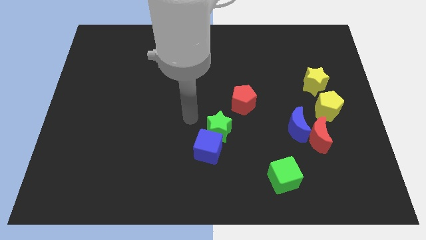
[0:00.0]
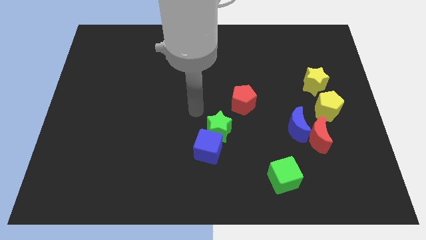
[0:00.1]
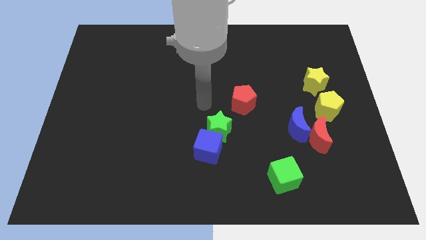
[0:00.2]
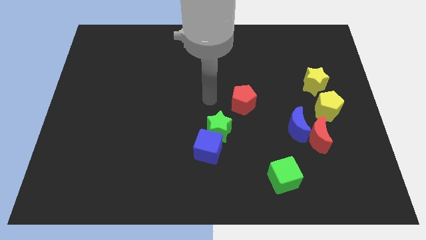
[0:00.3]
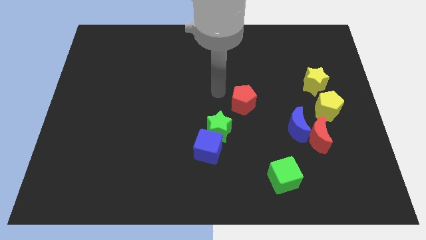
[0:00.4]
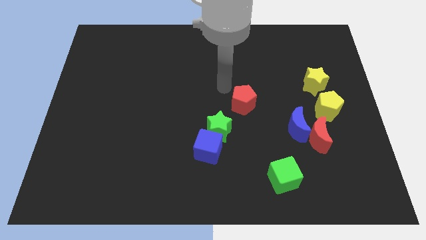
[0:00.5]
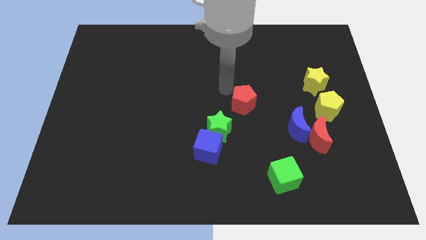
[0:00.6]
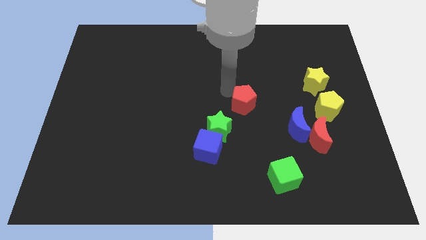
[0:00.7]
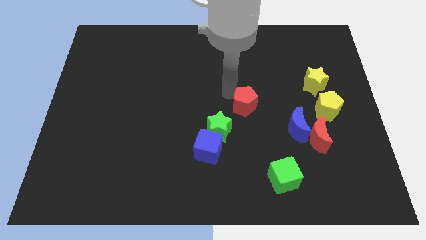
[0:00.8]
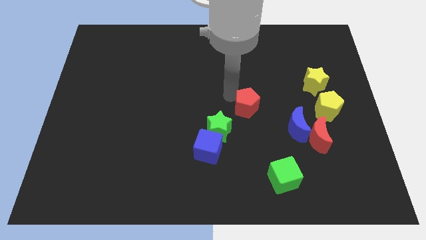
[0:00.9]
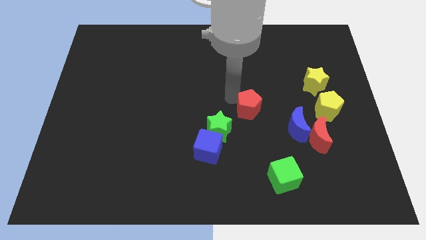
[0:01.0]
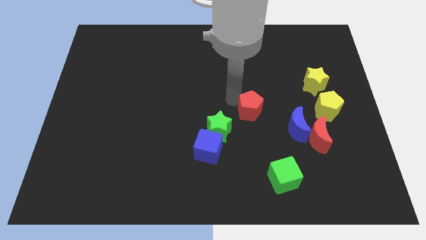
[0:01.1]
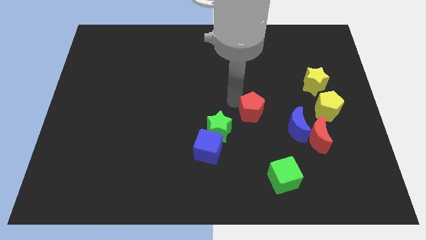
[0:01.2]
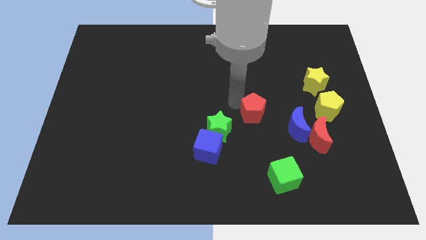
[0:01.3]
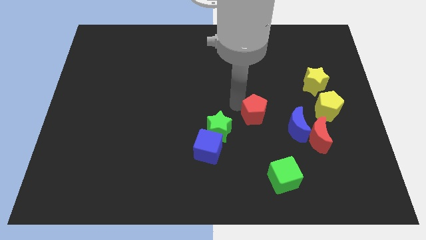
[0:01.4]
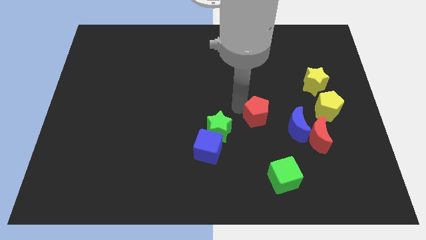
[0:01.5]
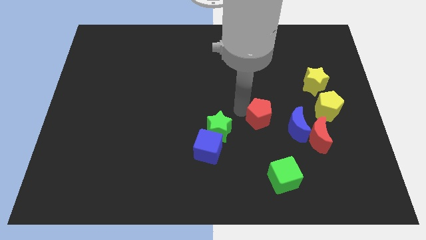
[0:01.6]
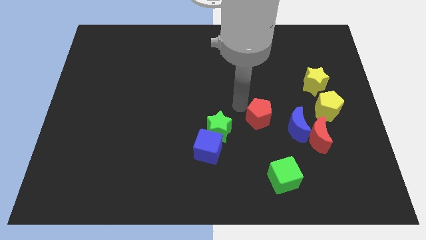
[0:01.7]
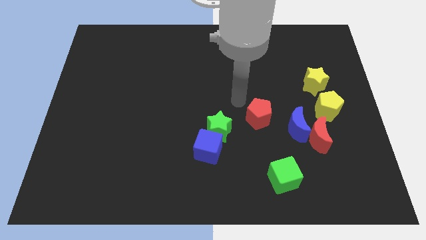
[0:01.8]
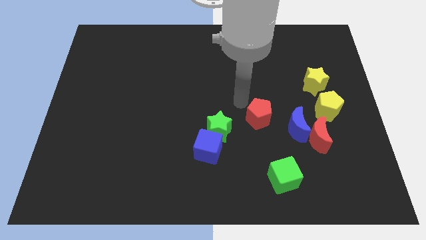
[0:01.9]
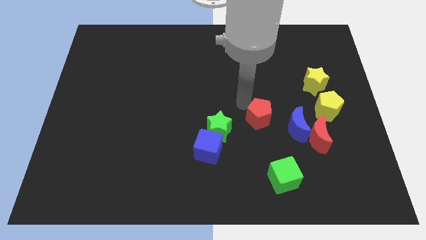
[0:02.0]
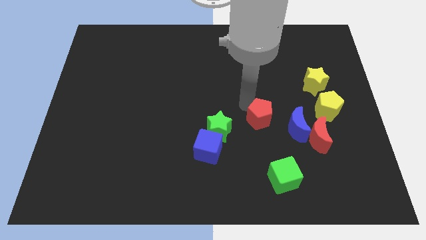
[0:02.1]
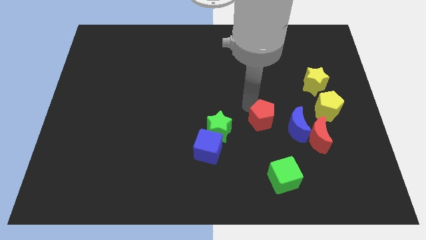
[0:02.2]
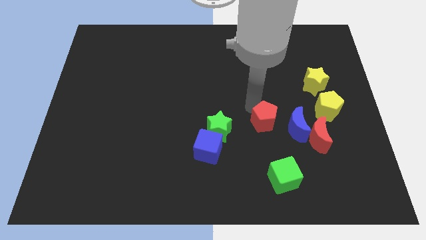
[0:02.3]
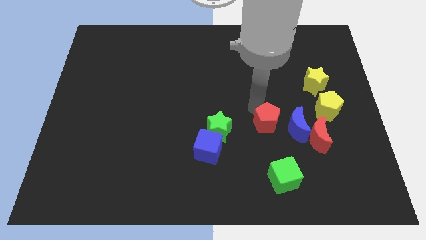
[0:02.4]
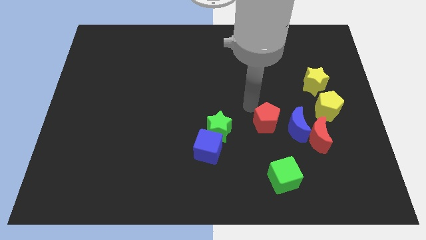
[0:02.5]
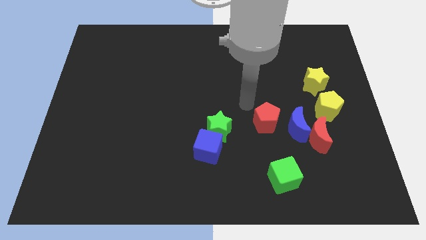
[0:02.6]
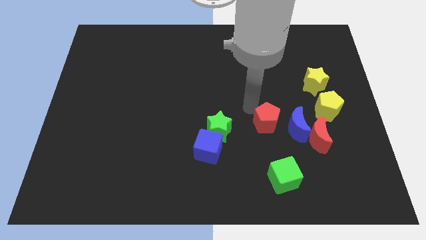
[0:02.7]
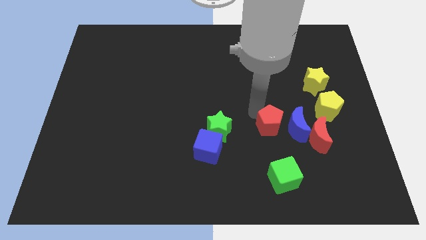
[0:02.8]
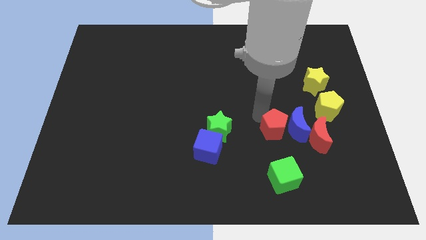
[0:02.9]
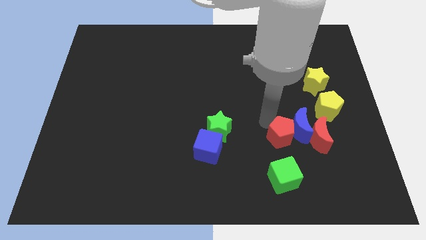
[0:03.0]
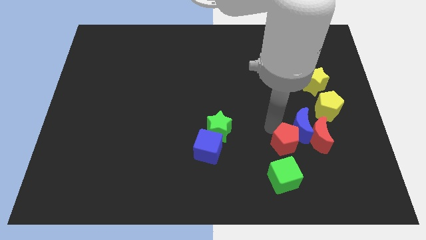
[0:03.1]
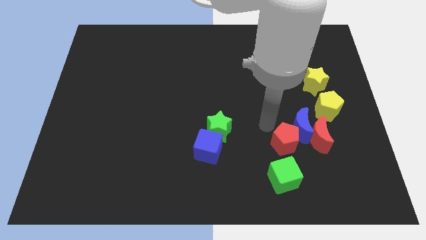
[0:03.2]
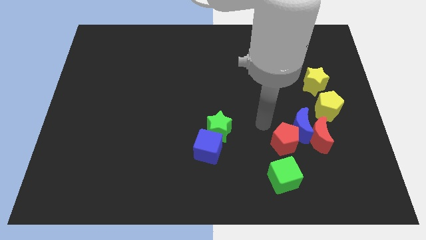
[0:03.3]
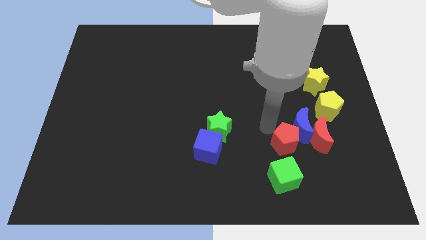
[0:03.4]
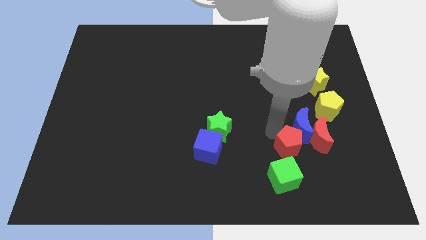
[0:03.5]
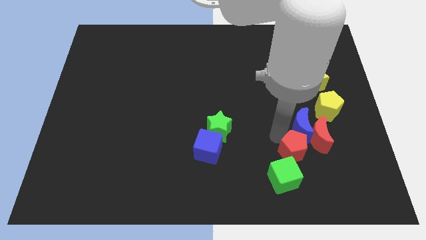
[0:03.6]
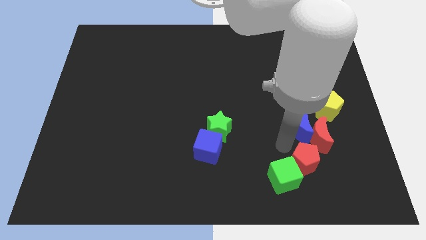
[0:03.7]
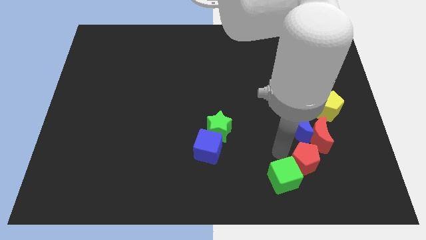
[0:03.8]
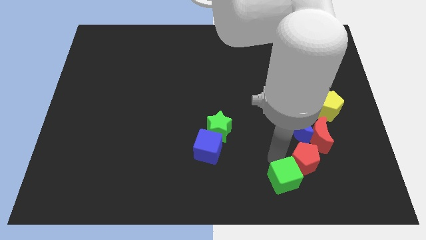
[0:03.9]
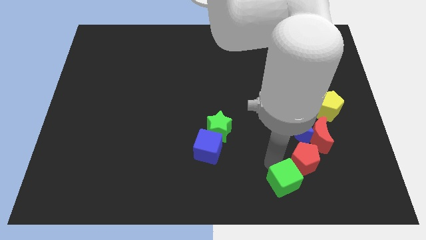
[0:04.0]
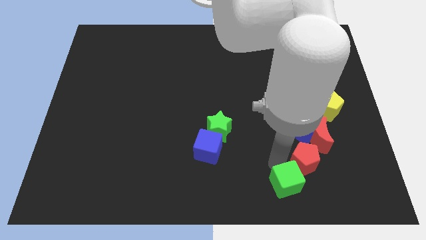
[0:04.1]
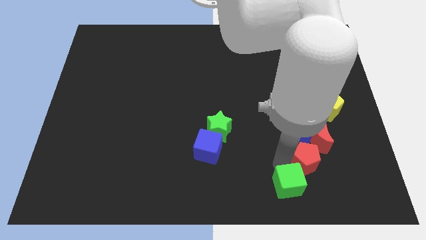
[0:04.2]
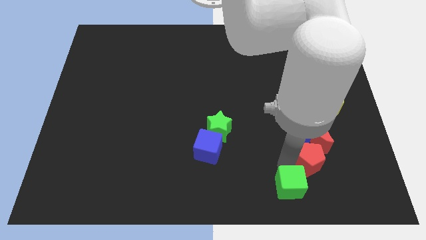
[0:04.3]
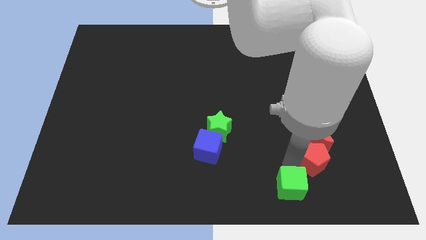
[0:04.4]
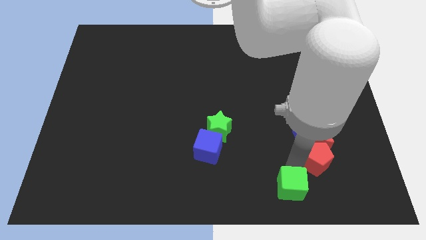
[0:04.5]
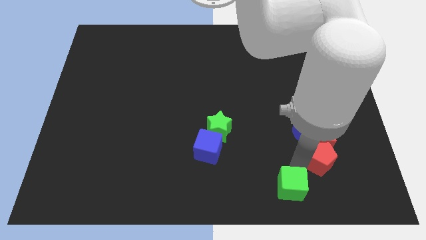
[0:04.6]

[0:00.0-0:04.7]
put the red pentagon to the bottom right of the red moon

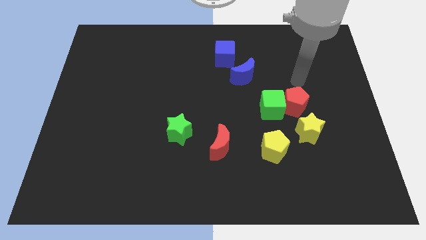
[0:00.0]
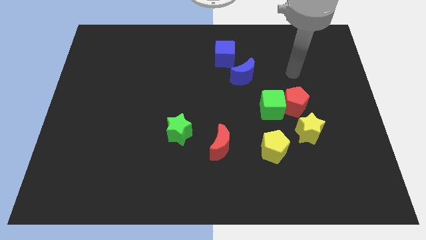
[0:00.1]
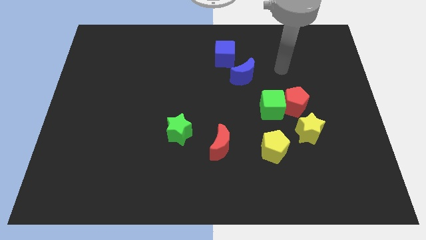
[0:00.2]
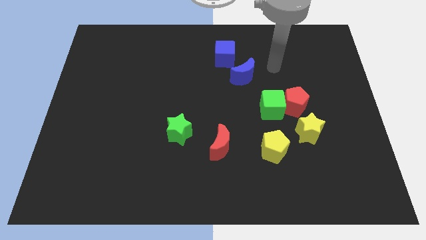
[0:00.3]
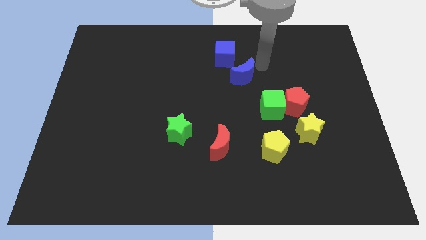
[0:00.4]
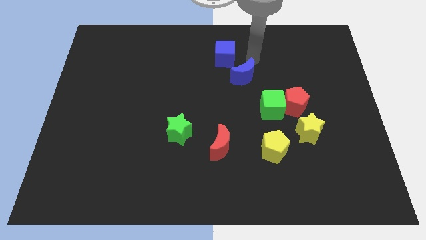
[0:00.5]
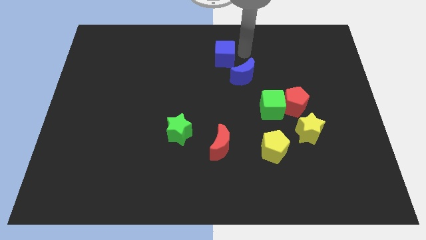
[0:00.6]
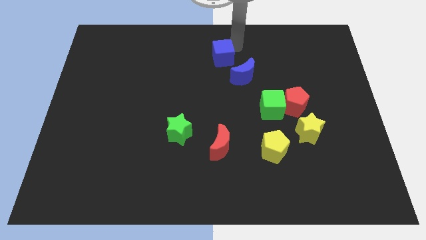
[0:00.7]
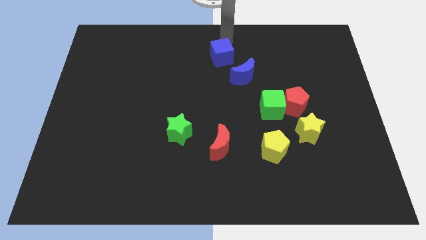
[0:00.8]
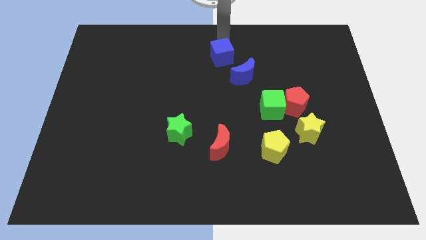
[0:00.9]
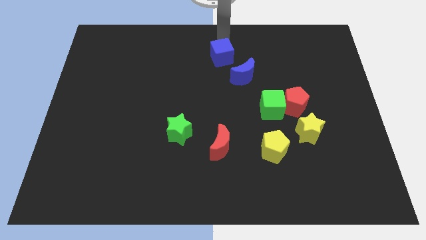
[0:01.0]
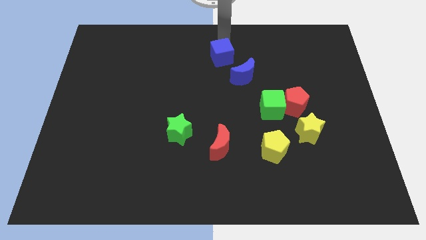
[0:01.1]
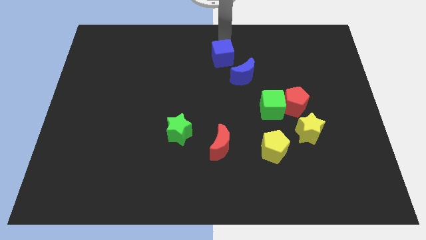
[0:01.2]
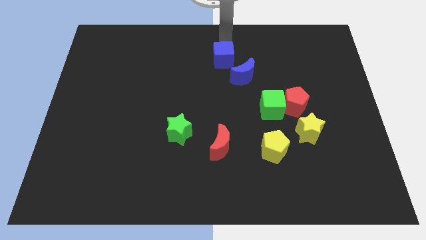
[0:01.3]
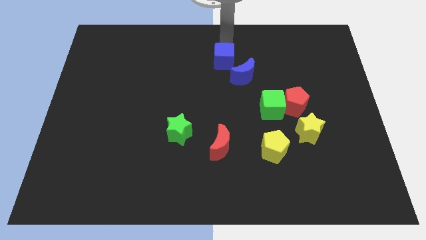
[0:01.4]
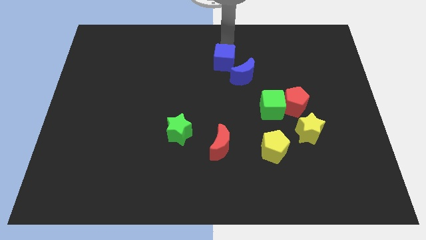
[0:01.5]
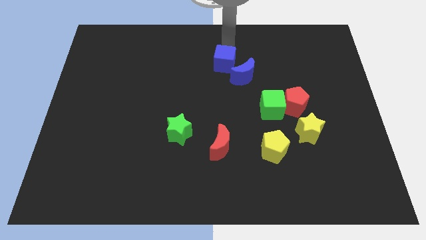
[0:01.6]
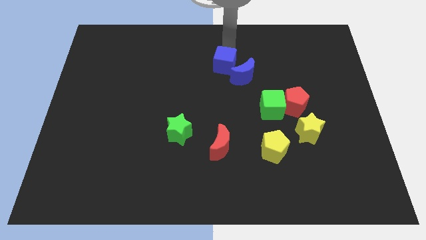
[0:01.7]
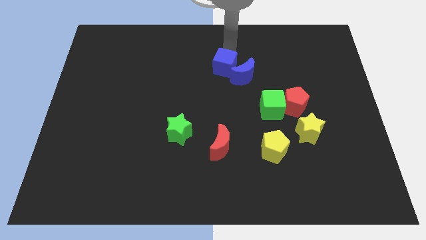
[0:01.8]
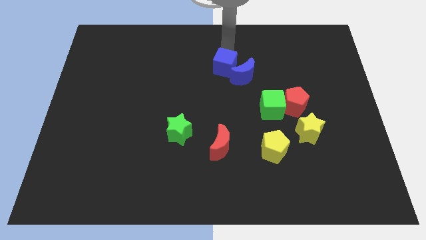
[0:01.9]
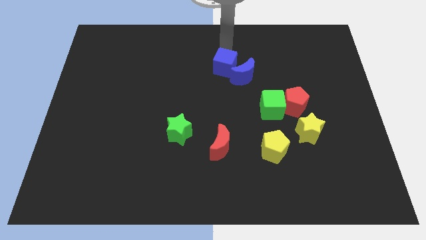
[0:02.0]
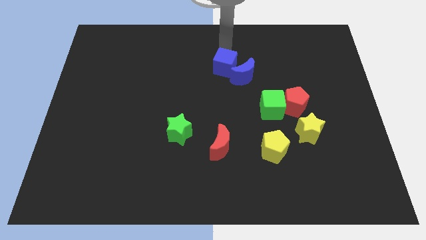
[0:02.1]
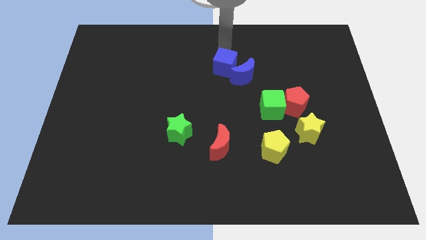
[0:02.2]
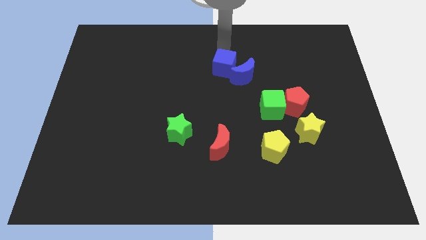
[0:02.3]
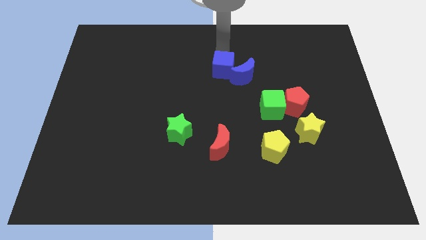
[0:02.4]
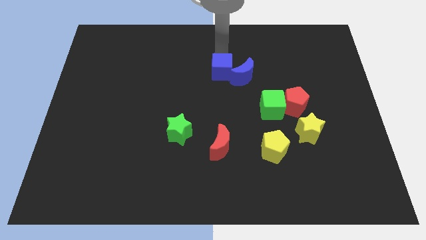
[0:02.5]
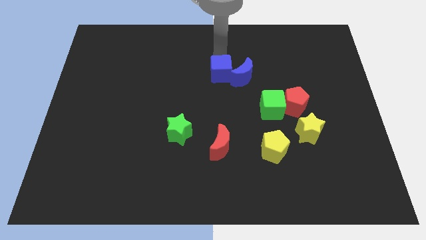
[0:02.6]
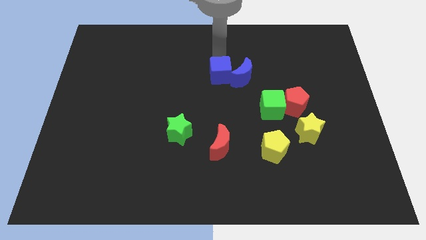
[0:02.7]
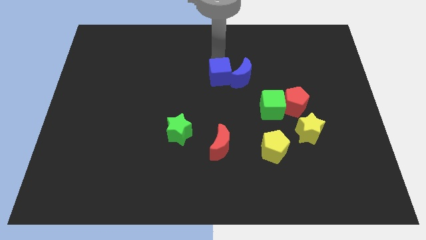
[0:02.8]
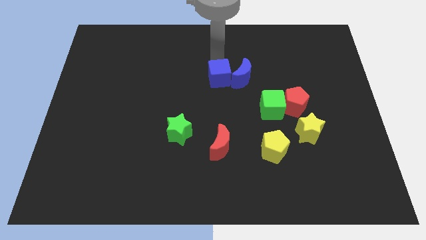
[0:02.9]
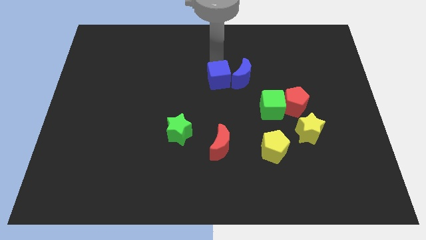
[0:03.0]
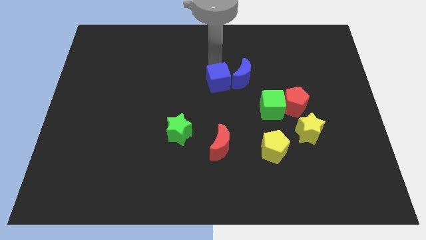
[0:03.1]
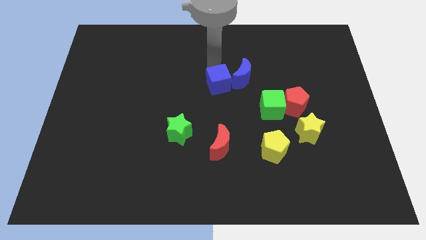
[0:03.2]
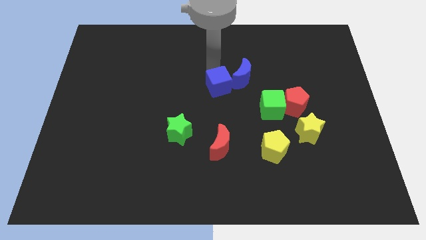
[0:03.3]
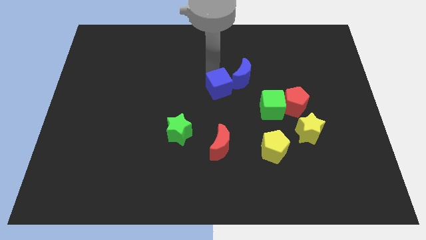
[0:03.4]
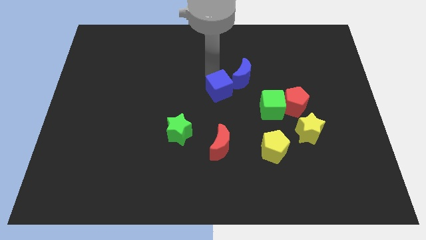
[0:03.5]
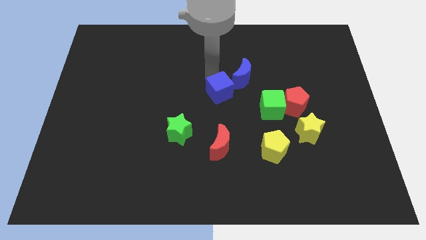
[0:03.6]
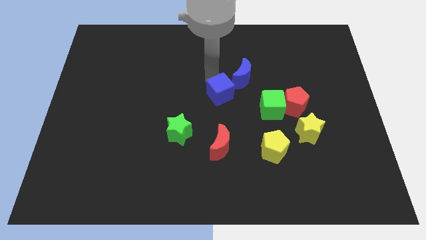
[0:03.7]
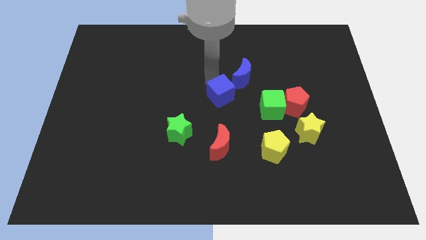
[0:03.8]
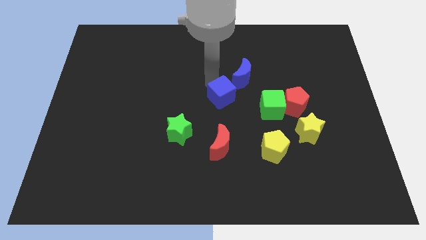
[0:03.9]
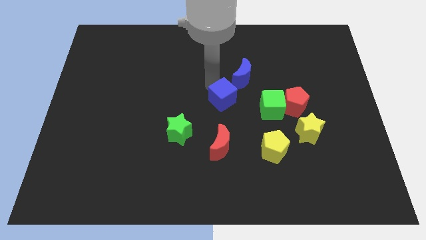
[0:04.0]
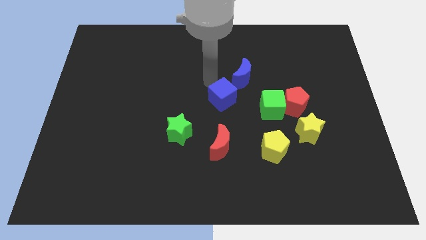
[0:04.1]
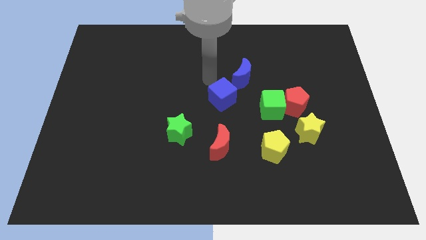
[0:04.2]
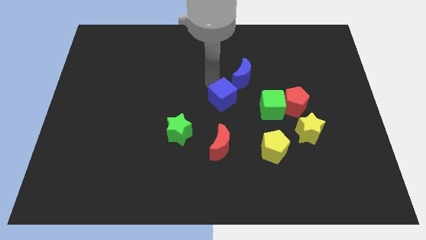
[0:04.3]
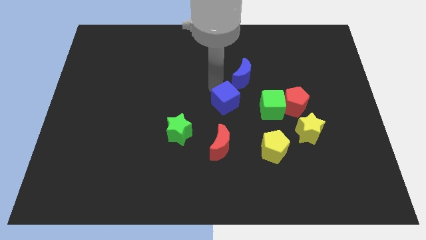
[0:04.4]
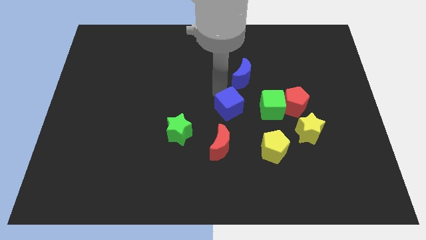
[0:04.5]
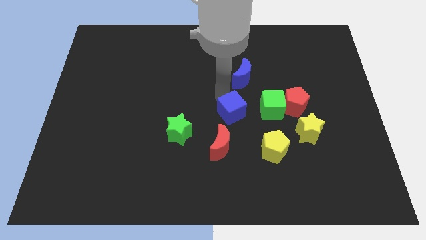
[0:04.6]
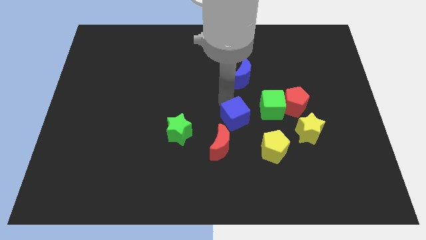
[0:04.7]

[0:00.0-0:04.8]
slide the blue cube diagonally up and to the right of the red moon
